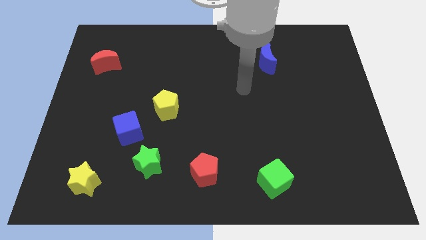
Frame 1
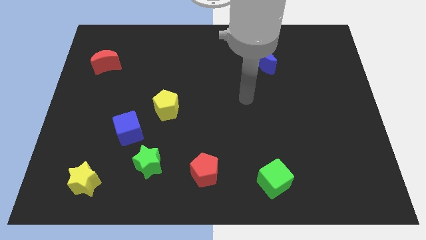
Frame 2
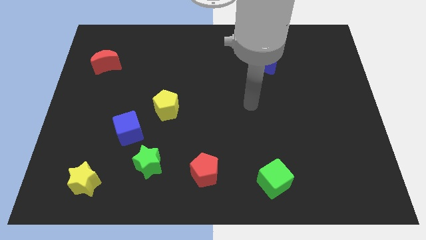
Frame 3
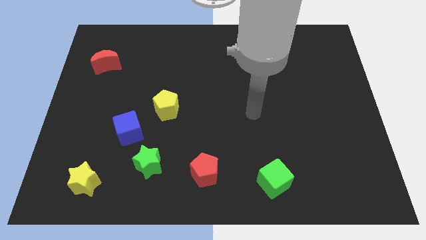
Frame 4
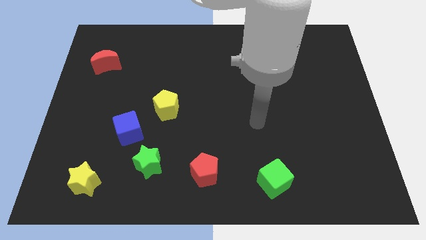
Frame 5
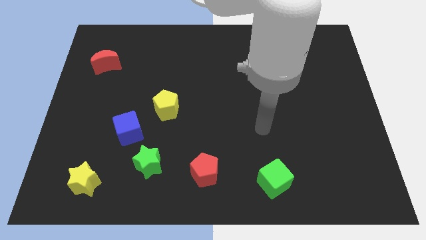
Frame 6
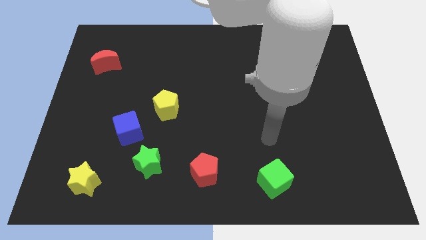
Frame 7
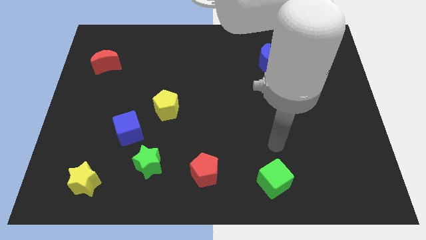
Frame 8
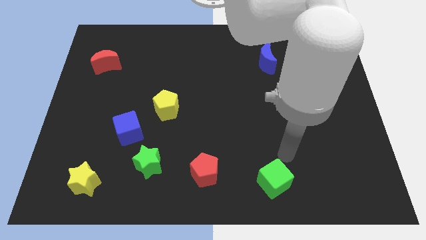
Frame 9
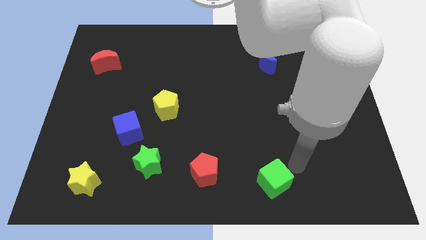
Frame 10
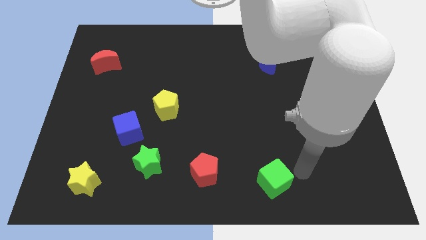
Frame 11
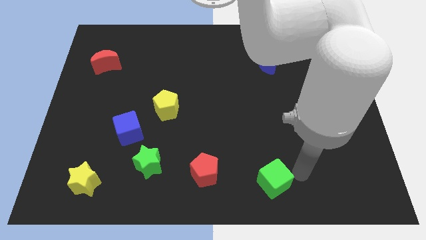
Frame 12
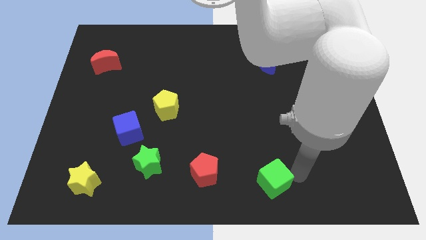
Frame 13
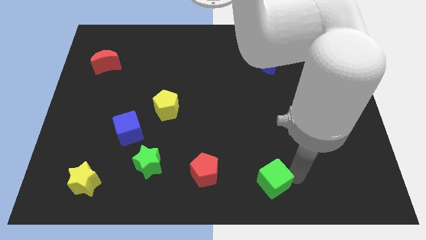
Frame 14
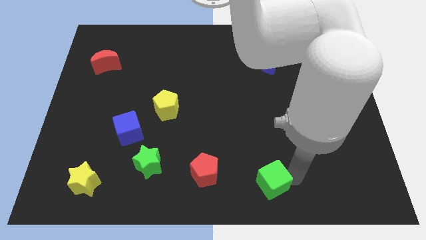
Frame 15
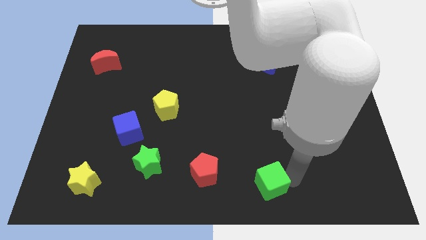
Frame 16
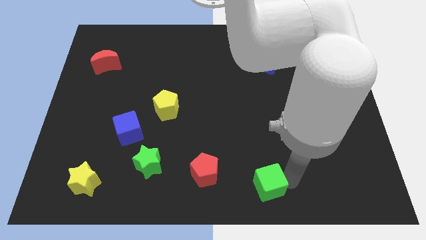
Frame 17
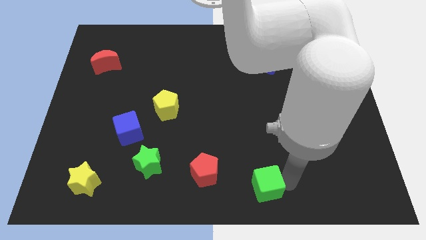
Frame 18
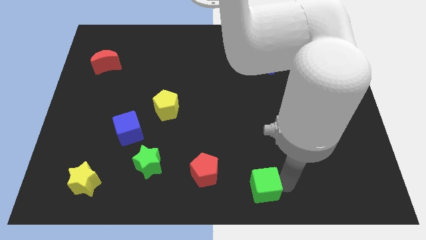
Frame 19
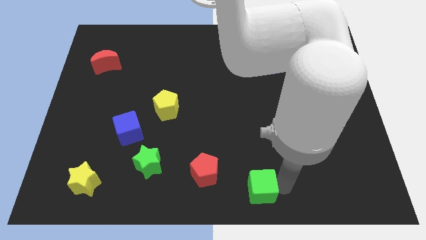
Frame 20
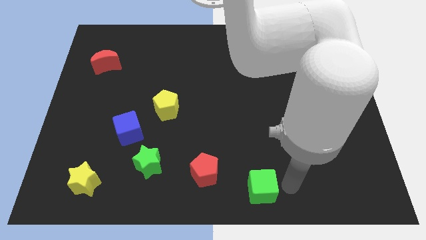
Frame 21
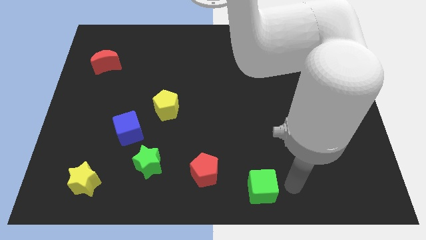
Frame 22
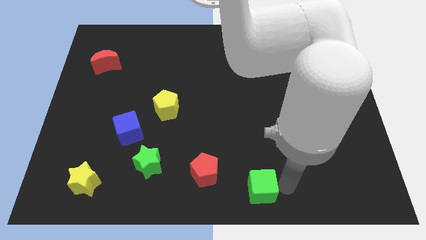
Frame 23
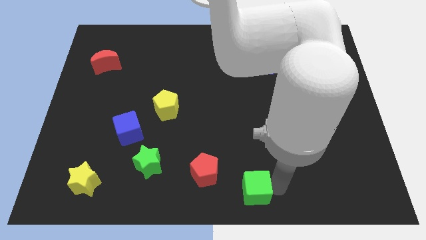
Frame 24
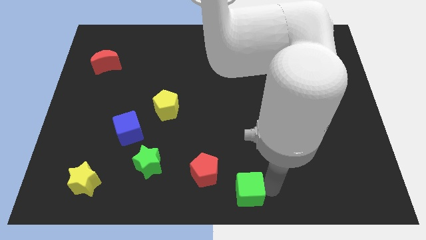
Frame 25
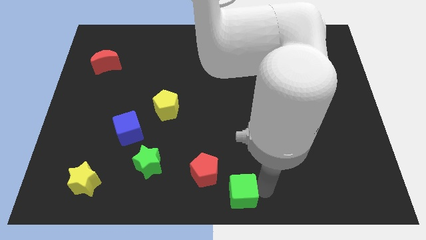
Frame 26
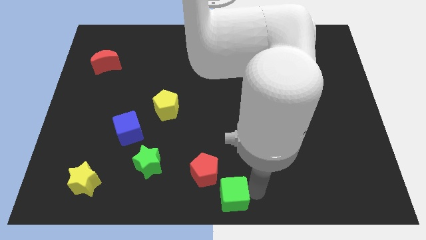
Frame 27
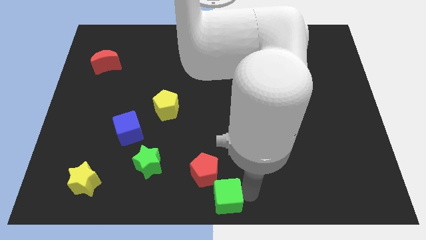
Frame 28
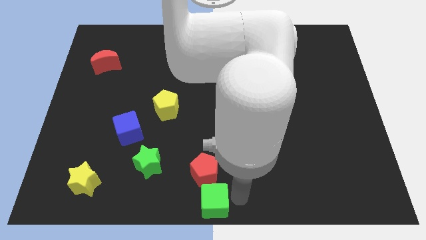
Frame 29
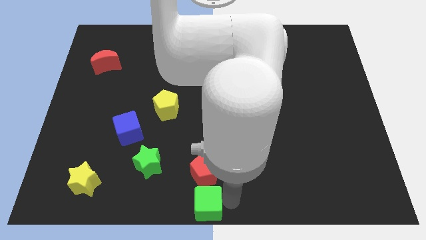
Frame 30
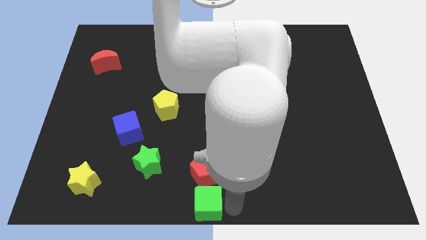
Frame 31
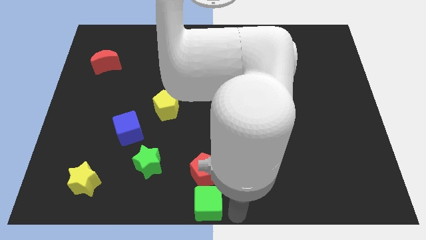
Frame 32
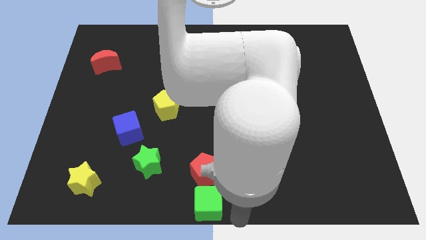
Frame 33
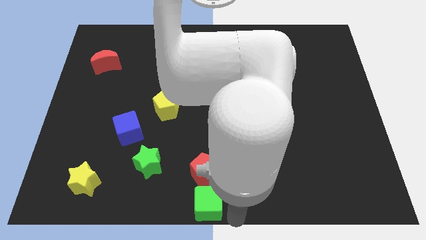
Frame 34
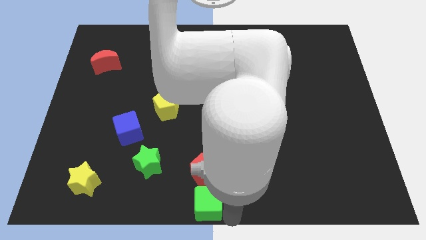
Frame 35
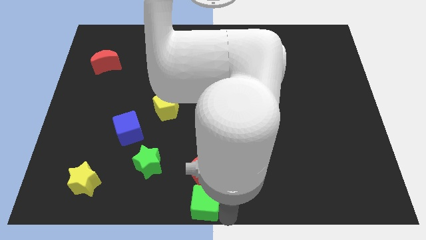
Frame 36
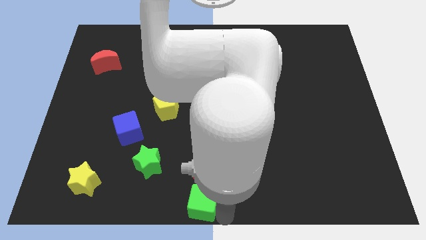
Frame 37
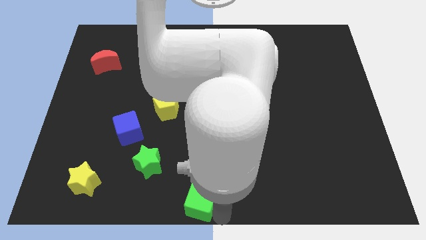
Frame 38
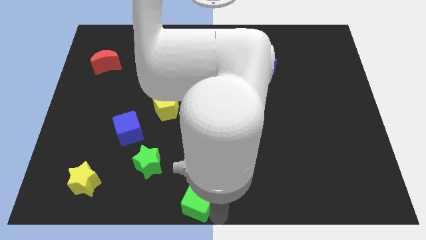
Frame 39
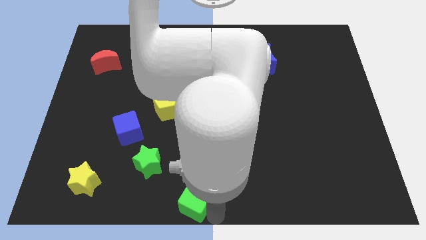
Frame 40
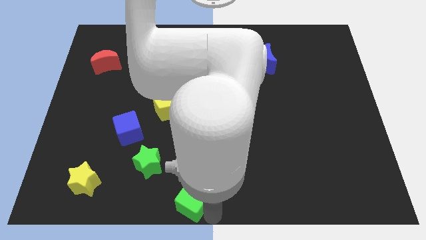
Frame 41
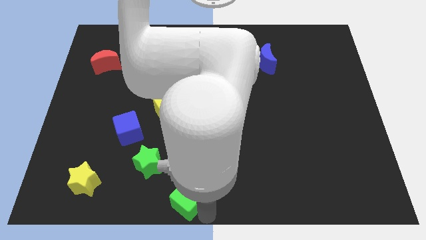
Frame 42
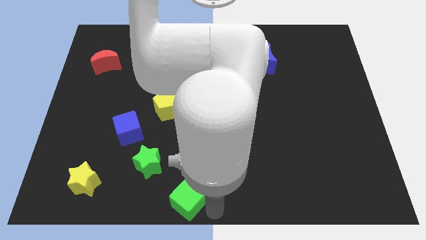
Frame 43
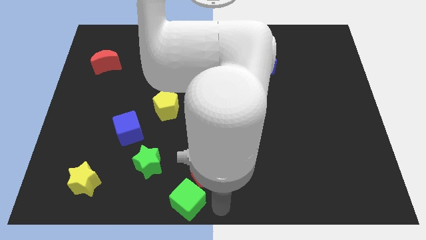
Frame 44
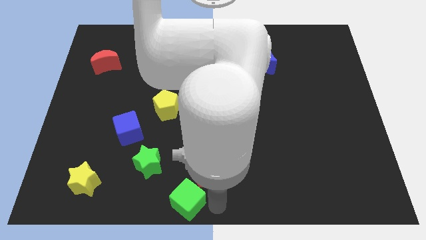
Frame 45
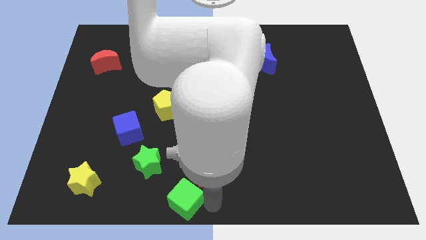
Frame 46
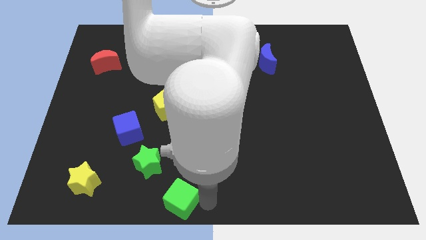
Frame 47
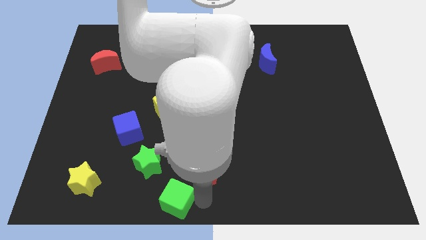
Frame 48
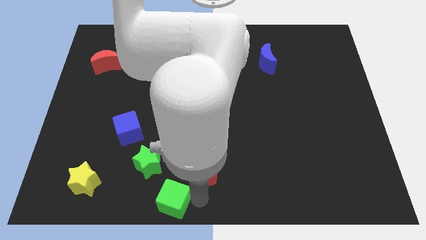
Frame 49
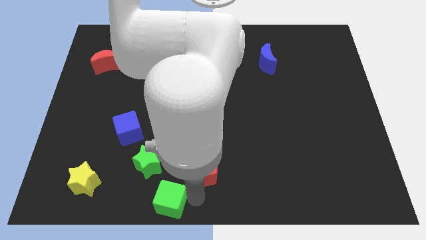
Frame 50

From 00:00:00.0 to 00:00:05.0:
move the green cube to the left

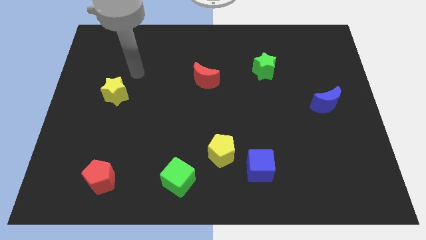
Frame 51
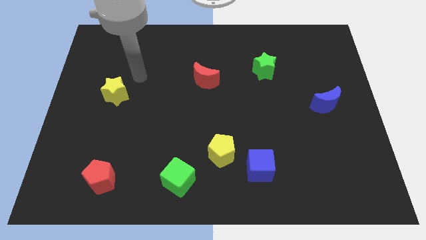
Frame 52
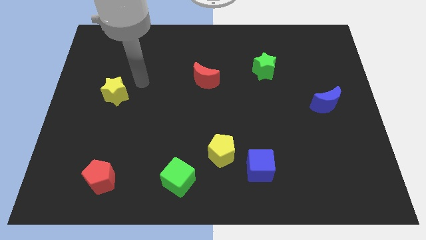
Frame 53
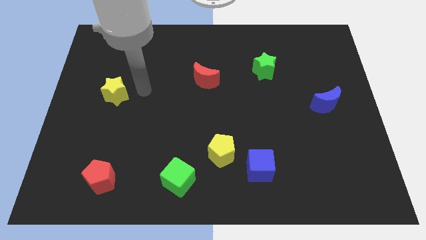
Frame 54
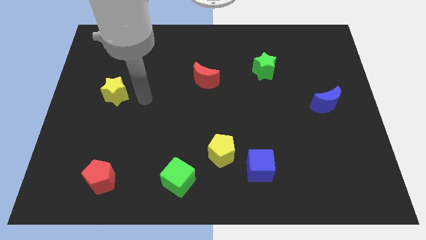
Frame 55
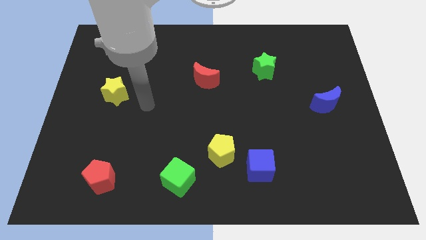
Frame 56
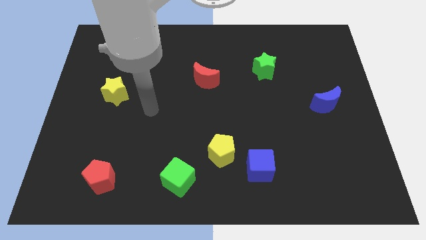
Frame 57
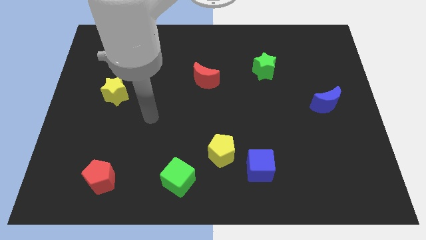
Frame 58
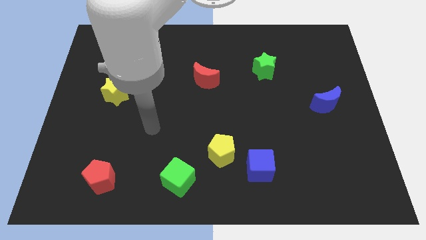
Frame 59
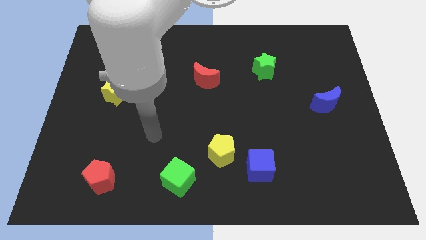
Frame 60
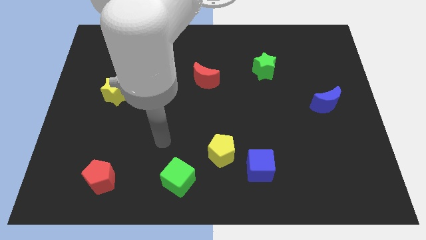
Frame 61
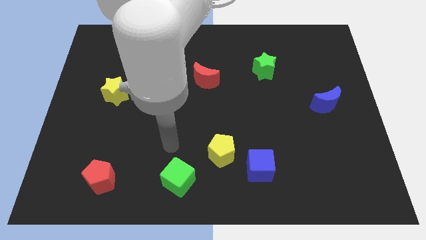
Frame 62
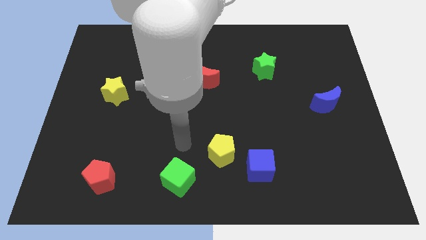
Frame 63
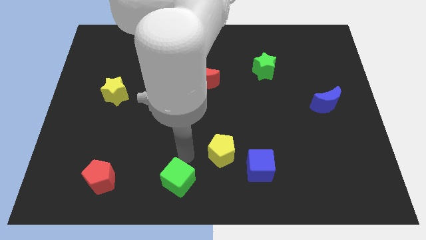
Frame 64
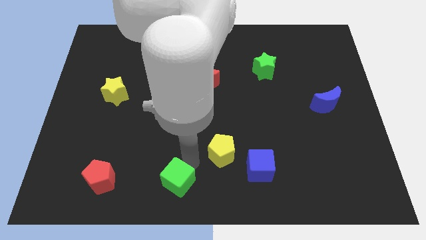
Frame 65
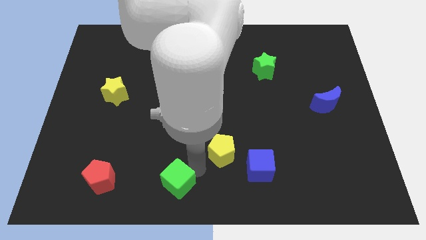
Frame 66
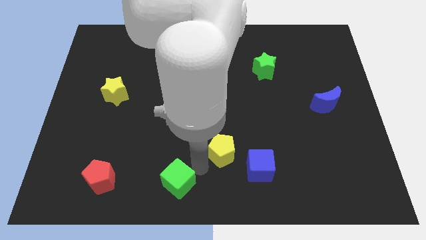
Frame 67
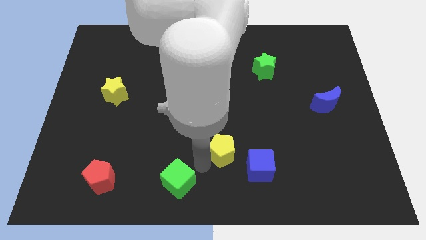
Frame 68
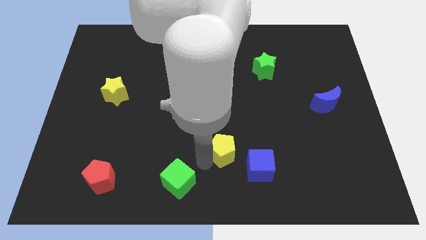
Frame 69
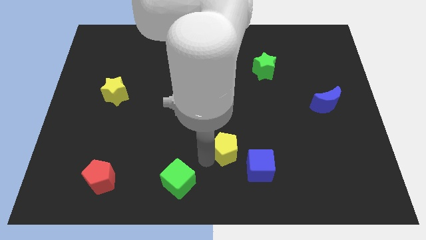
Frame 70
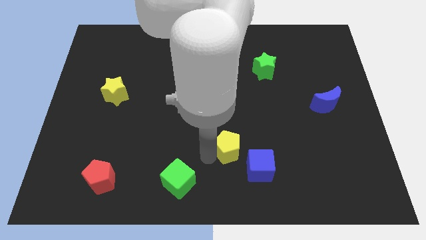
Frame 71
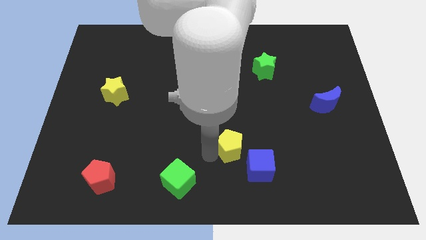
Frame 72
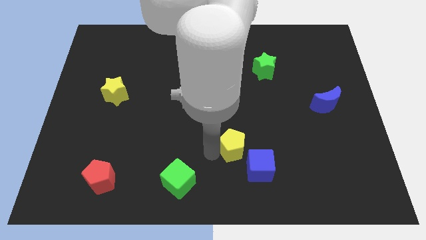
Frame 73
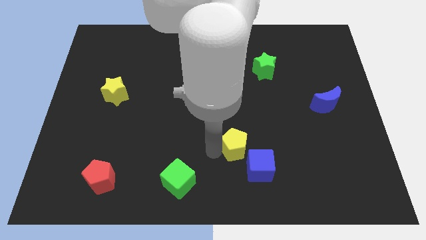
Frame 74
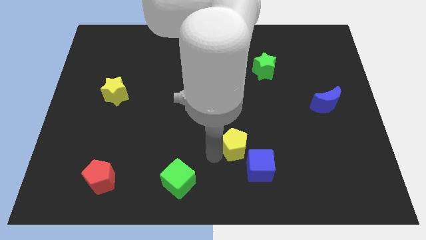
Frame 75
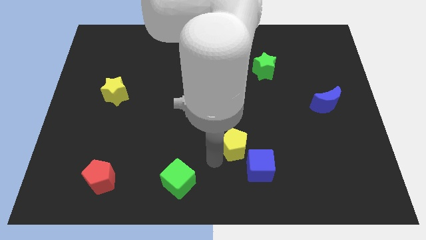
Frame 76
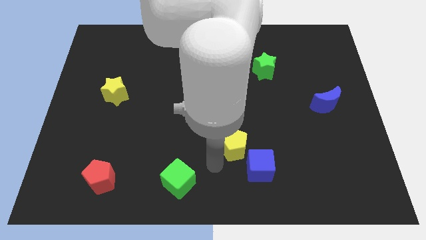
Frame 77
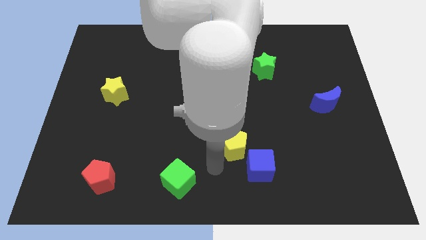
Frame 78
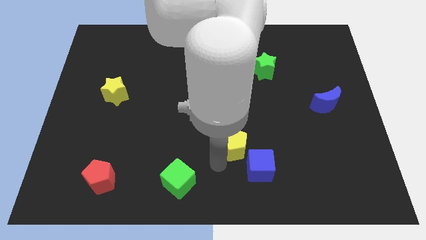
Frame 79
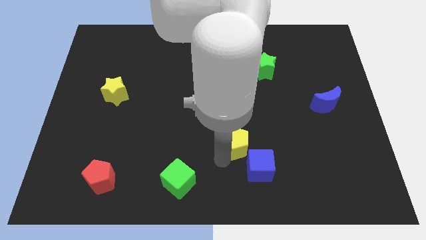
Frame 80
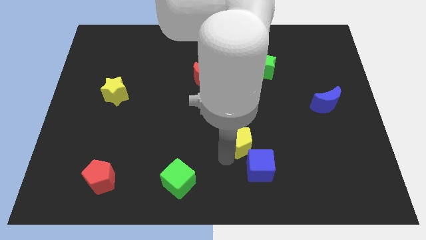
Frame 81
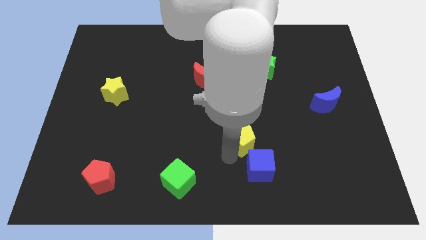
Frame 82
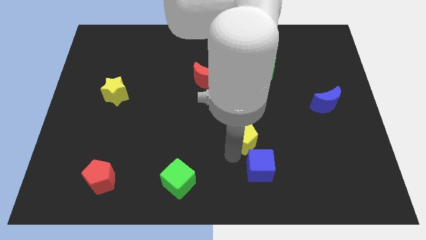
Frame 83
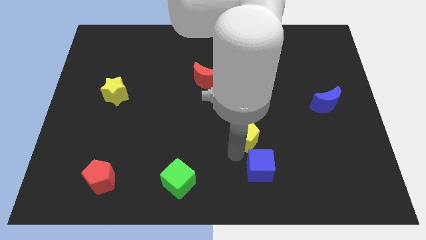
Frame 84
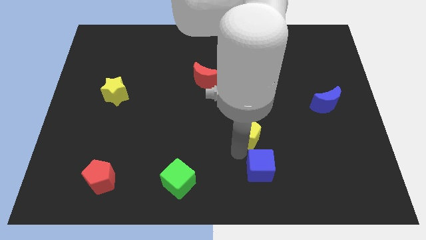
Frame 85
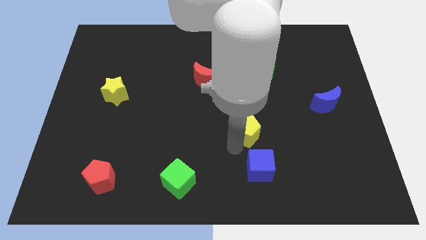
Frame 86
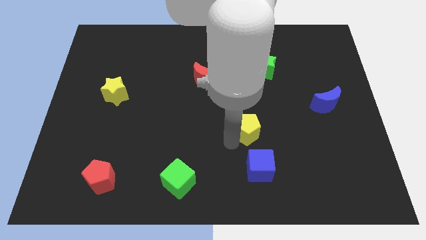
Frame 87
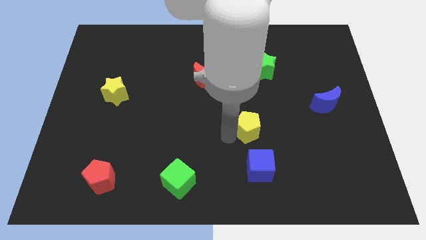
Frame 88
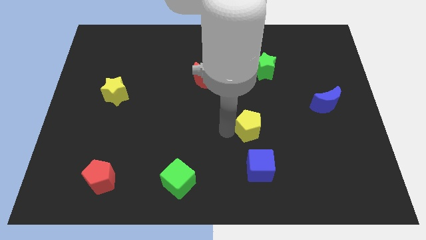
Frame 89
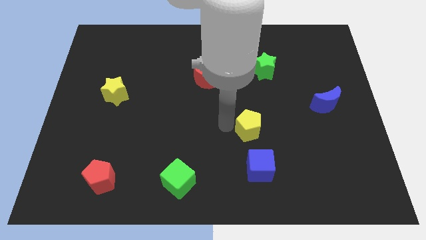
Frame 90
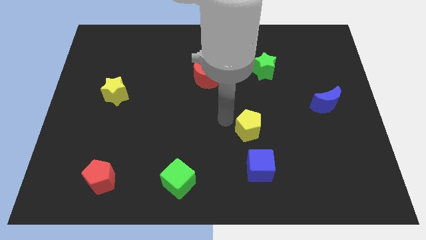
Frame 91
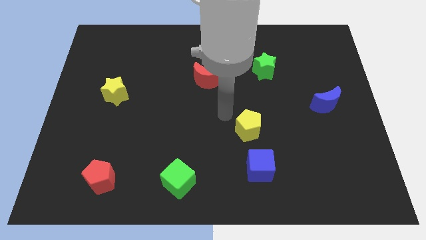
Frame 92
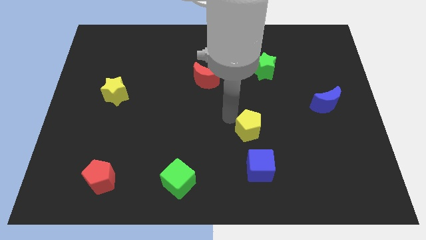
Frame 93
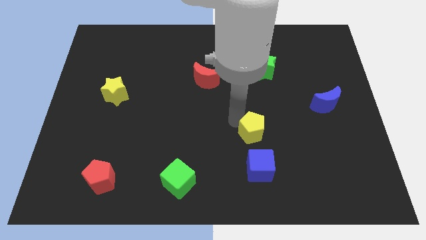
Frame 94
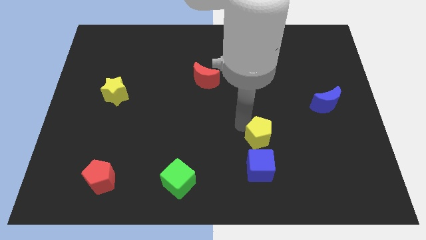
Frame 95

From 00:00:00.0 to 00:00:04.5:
move the yellow pentagon a little bit to the right
